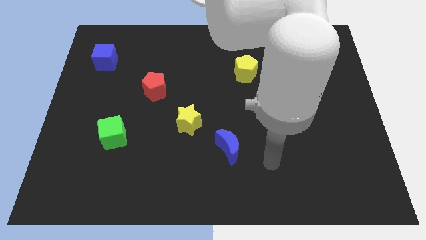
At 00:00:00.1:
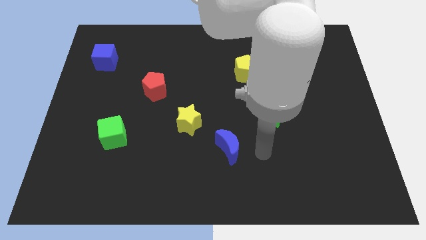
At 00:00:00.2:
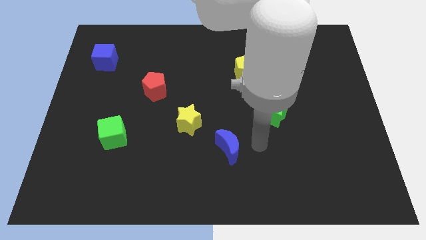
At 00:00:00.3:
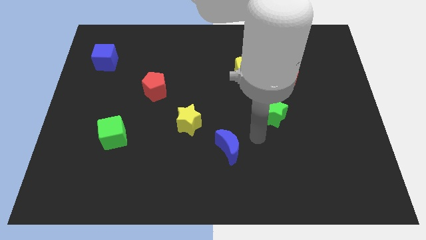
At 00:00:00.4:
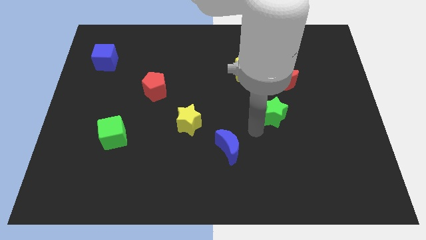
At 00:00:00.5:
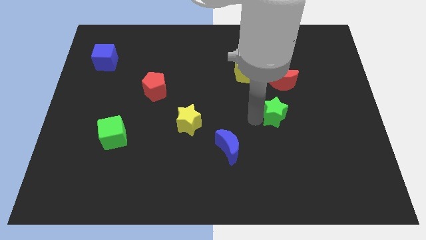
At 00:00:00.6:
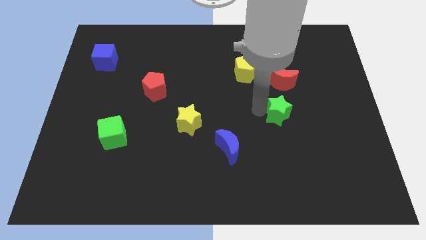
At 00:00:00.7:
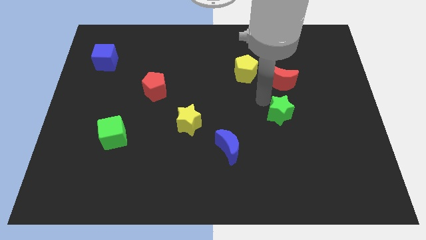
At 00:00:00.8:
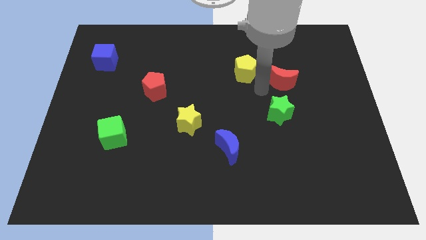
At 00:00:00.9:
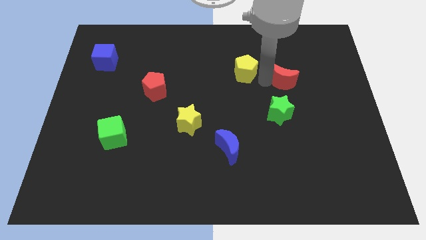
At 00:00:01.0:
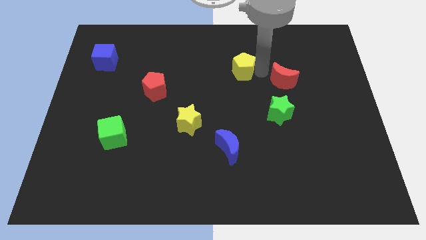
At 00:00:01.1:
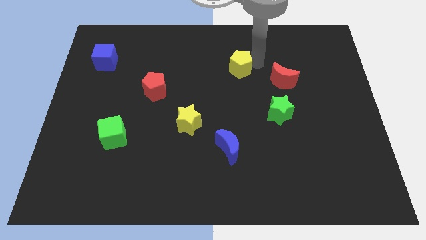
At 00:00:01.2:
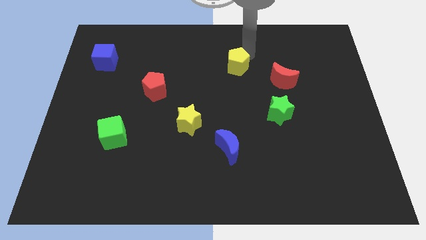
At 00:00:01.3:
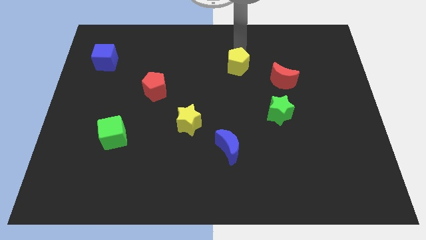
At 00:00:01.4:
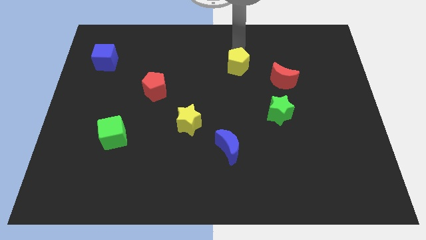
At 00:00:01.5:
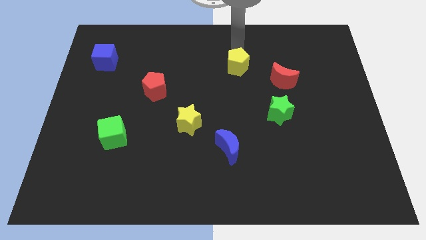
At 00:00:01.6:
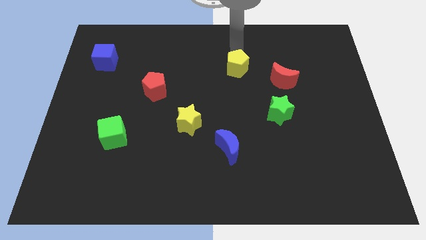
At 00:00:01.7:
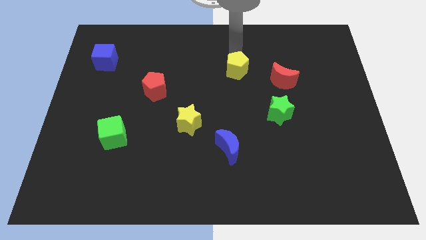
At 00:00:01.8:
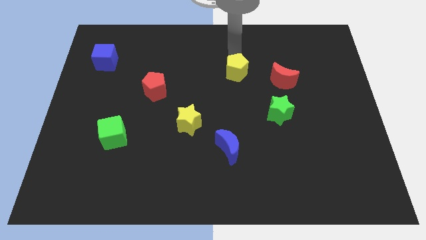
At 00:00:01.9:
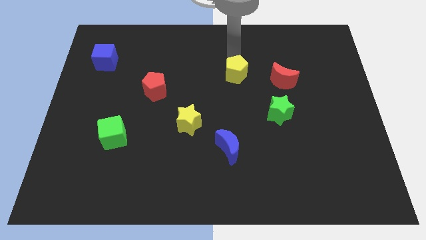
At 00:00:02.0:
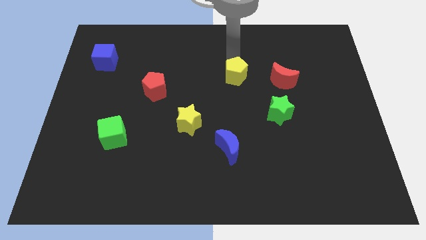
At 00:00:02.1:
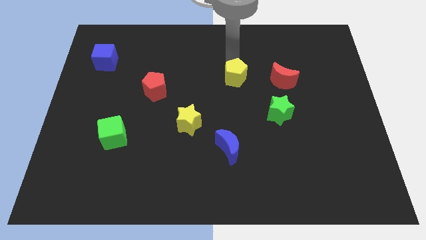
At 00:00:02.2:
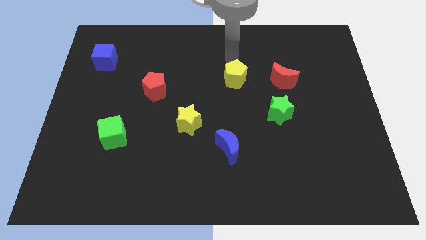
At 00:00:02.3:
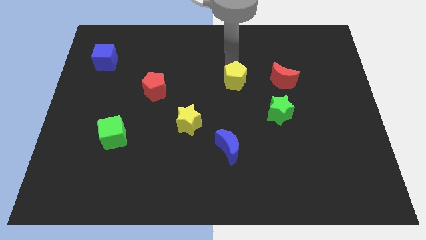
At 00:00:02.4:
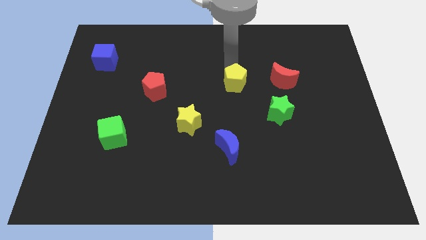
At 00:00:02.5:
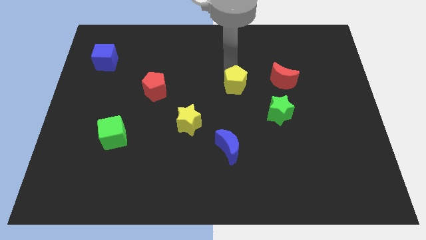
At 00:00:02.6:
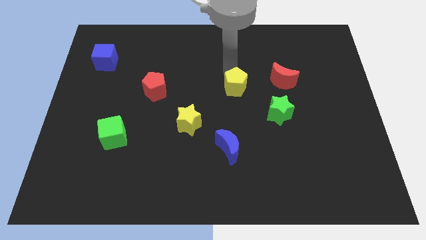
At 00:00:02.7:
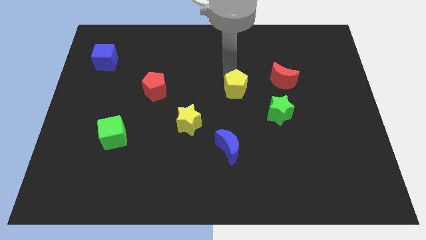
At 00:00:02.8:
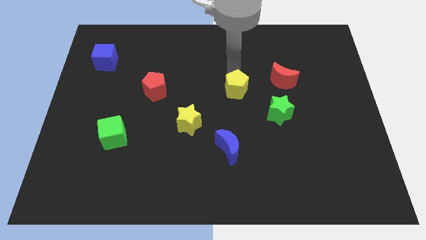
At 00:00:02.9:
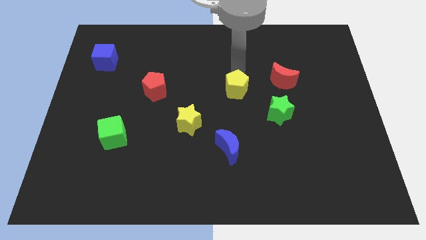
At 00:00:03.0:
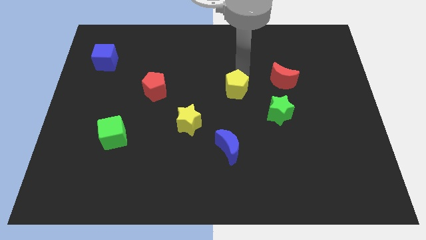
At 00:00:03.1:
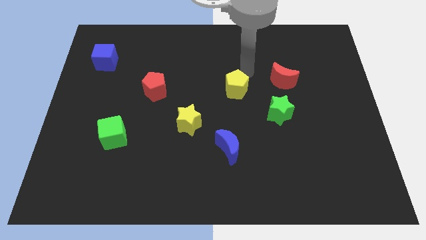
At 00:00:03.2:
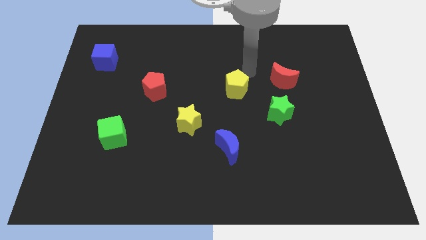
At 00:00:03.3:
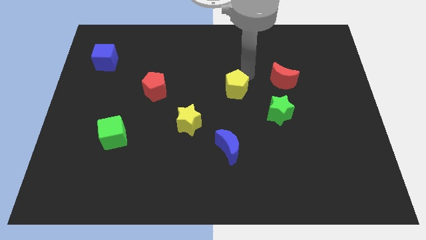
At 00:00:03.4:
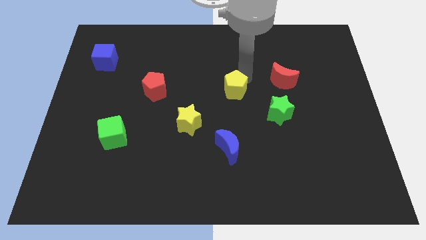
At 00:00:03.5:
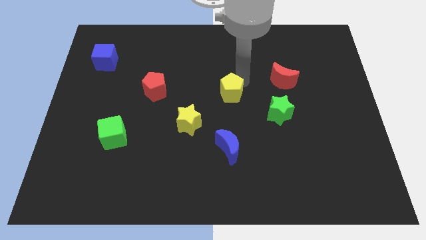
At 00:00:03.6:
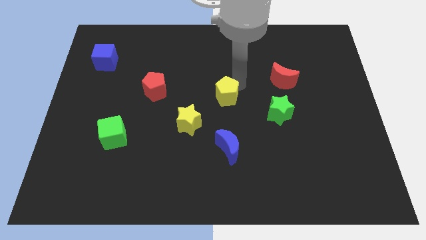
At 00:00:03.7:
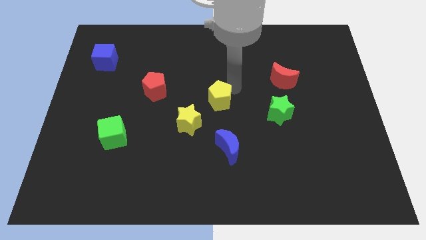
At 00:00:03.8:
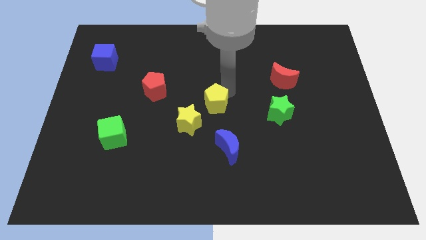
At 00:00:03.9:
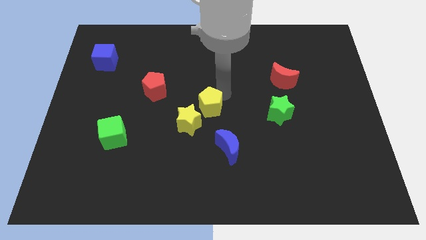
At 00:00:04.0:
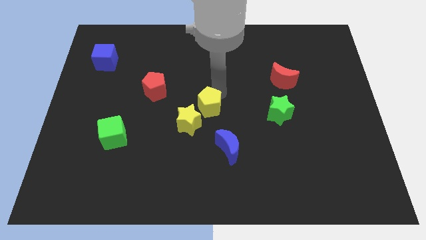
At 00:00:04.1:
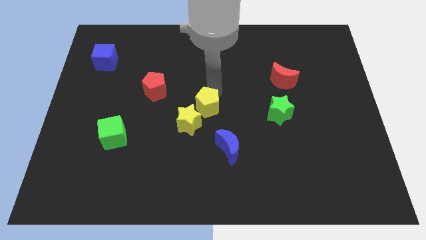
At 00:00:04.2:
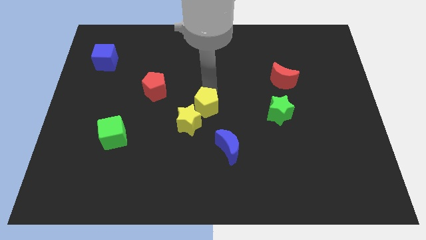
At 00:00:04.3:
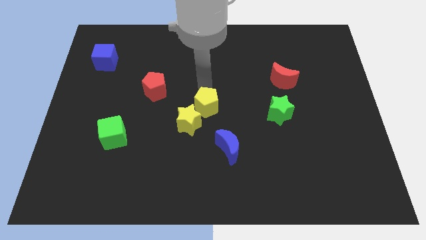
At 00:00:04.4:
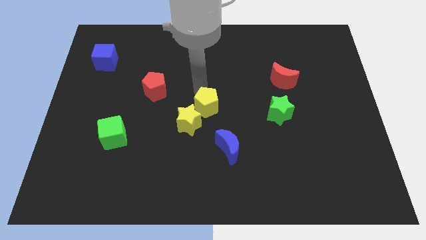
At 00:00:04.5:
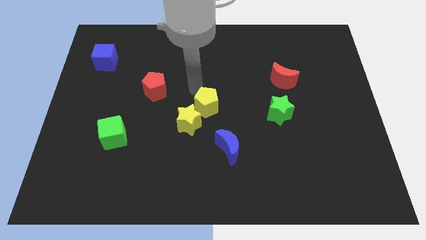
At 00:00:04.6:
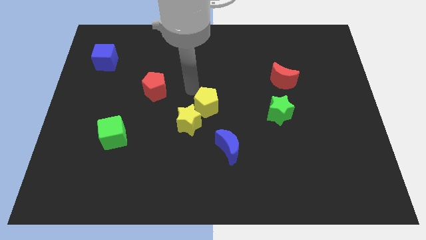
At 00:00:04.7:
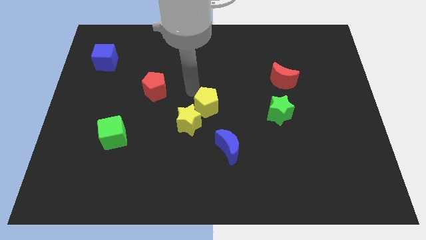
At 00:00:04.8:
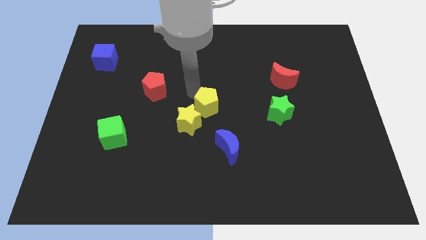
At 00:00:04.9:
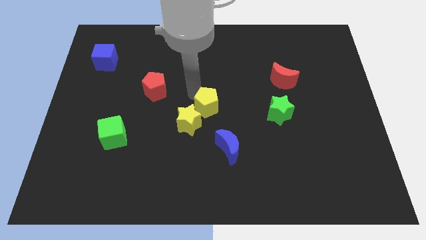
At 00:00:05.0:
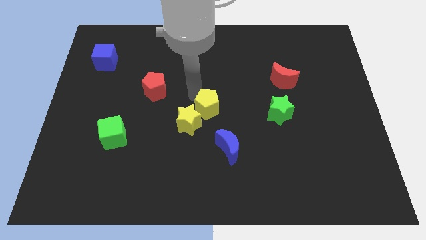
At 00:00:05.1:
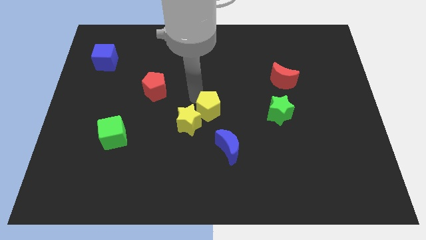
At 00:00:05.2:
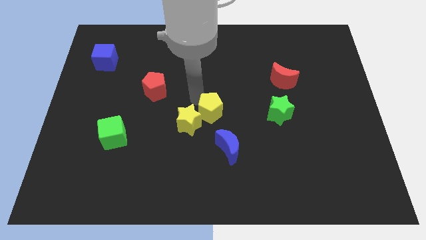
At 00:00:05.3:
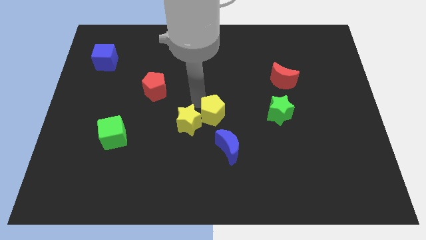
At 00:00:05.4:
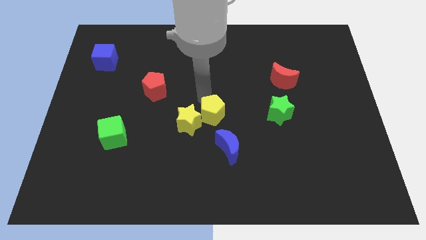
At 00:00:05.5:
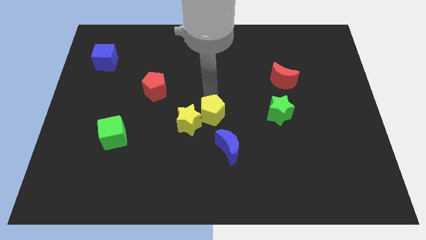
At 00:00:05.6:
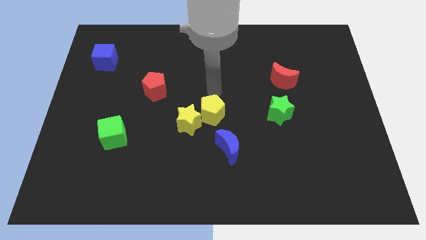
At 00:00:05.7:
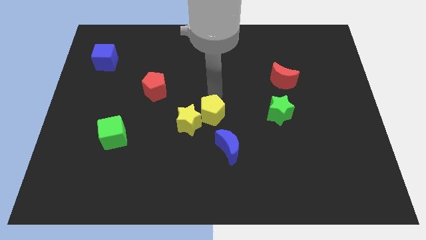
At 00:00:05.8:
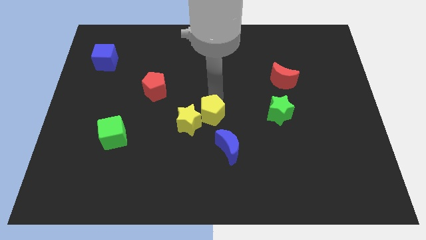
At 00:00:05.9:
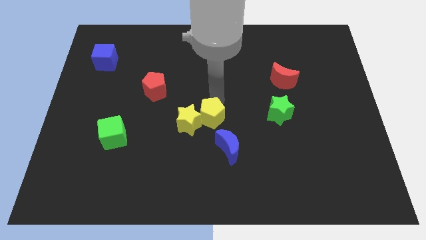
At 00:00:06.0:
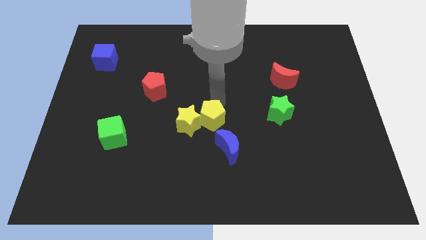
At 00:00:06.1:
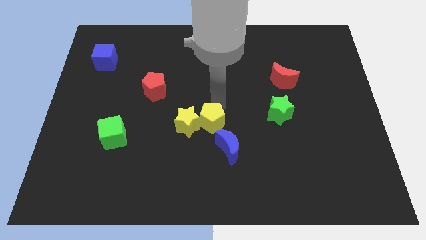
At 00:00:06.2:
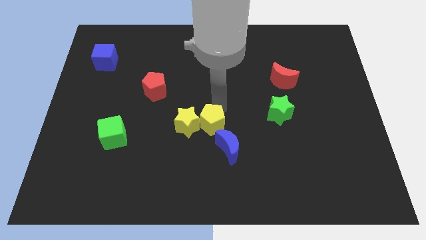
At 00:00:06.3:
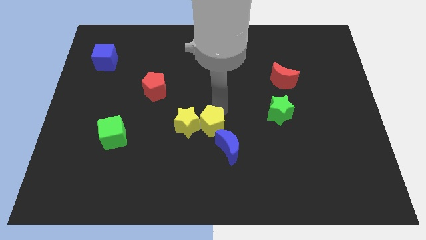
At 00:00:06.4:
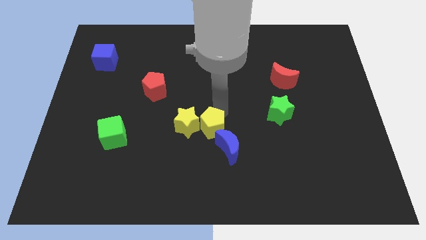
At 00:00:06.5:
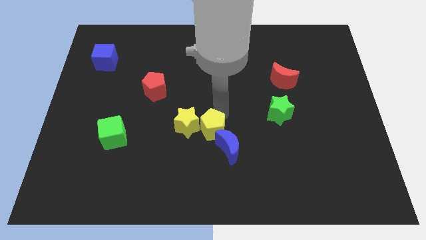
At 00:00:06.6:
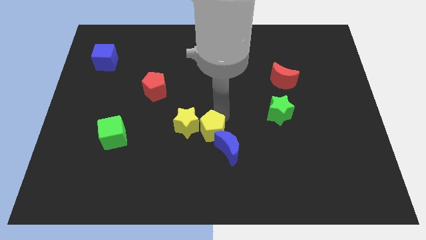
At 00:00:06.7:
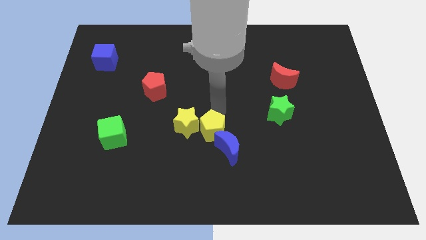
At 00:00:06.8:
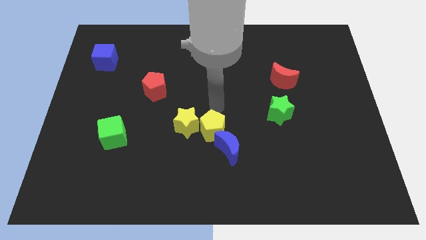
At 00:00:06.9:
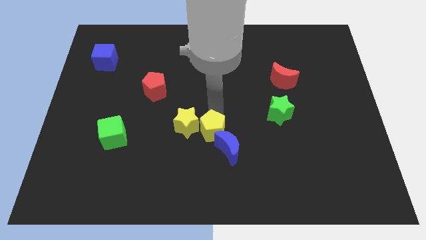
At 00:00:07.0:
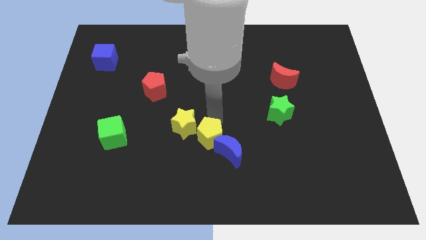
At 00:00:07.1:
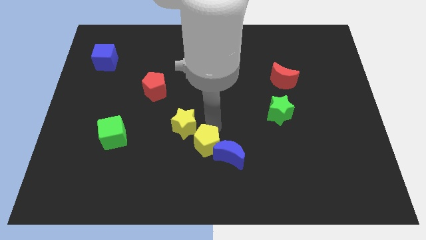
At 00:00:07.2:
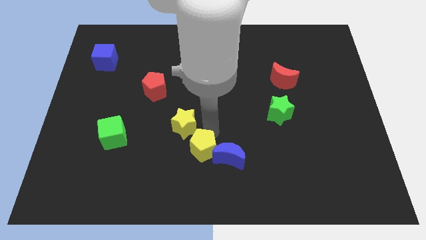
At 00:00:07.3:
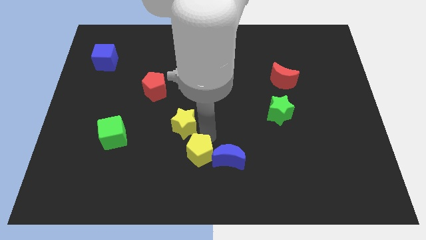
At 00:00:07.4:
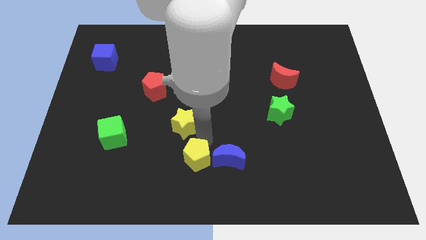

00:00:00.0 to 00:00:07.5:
push the yellow pentagon to the bottom side
